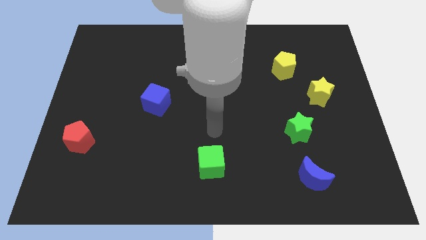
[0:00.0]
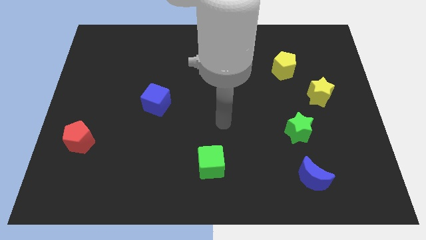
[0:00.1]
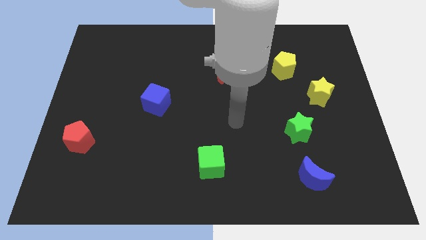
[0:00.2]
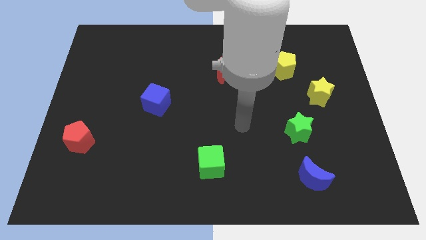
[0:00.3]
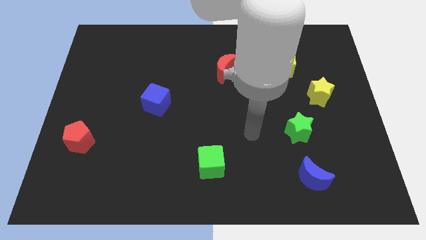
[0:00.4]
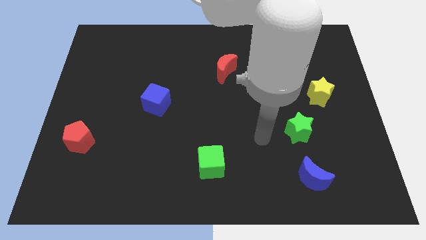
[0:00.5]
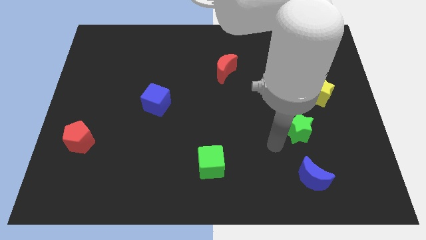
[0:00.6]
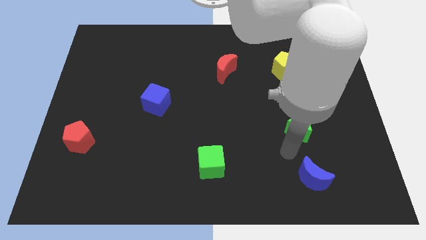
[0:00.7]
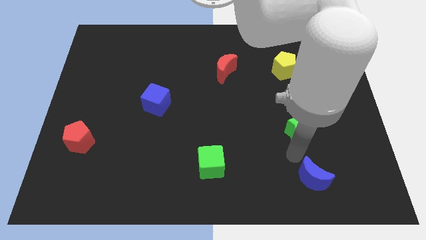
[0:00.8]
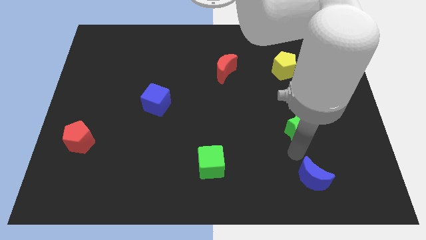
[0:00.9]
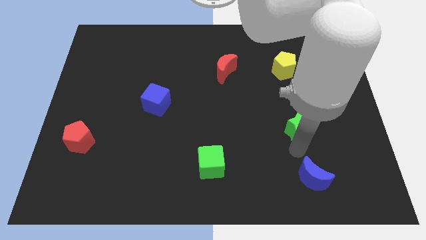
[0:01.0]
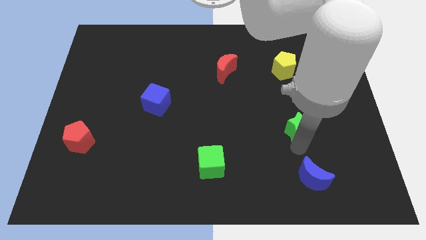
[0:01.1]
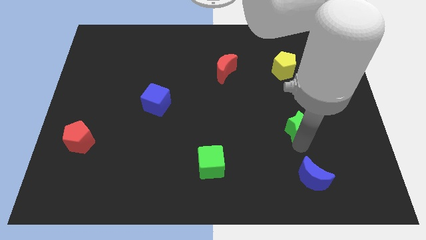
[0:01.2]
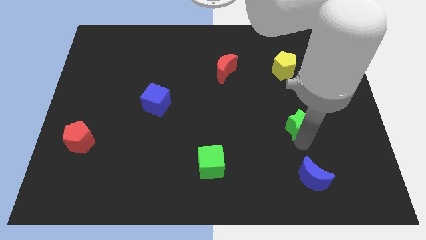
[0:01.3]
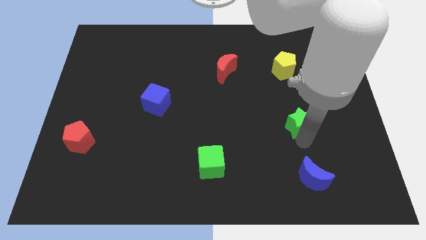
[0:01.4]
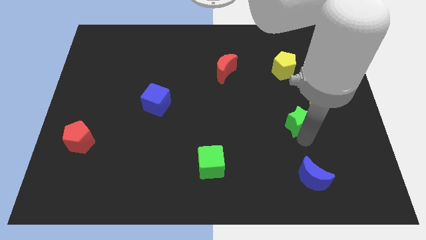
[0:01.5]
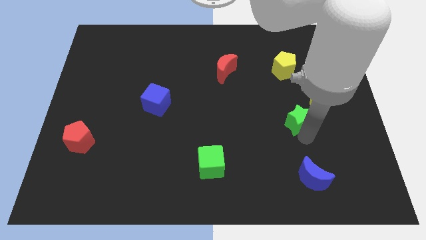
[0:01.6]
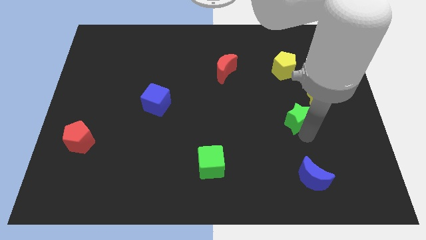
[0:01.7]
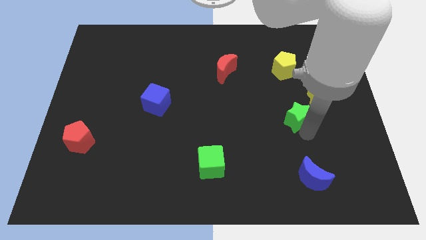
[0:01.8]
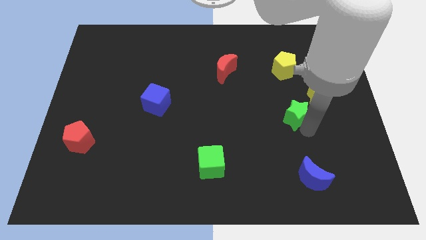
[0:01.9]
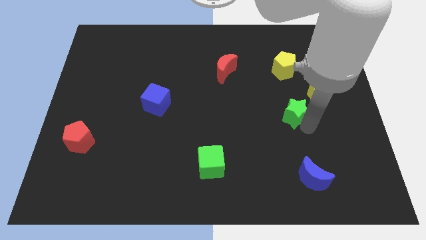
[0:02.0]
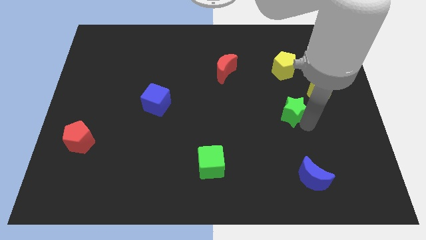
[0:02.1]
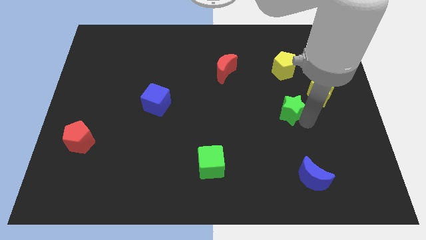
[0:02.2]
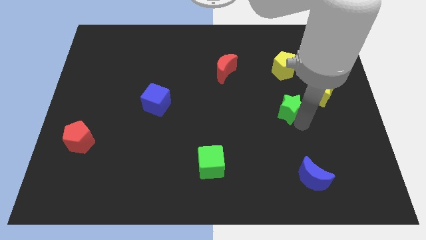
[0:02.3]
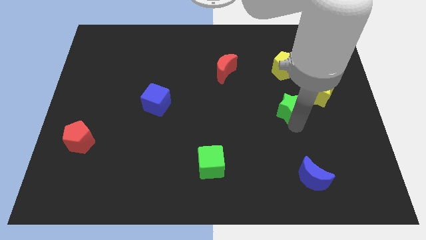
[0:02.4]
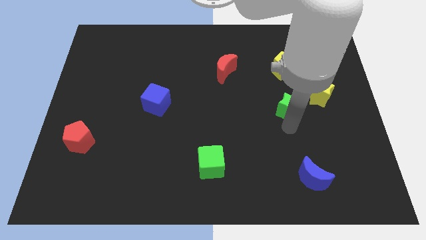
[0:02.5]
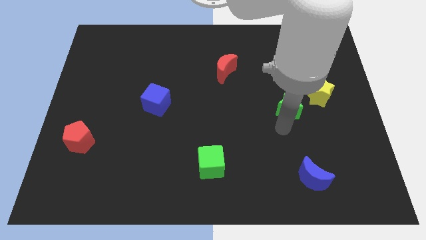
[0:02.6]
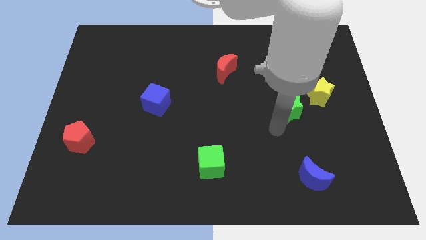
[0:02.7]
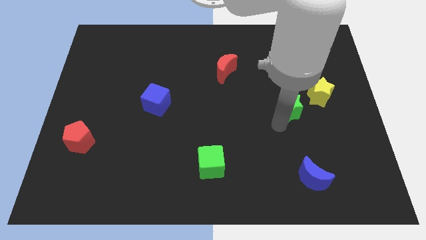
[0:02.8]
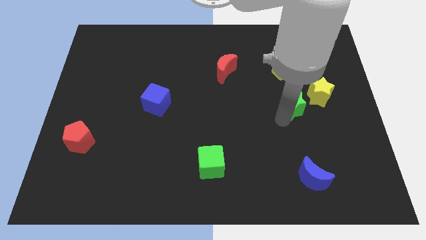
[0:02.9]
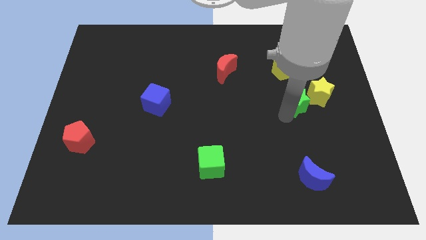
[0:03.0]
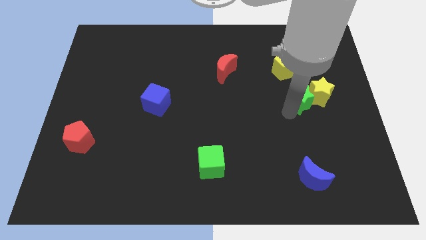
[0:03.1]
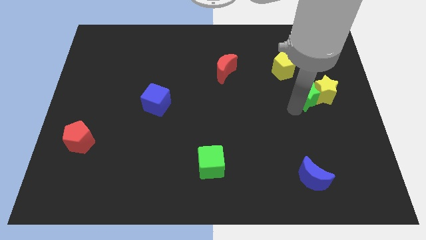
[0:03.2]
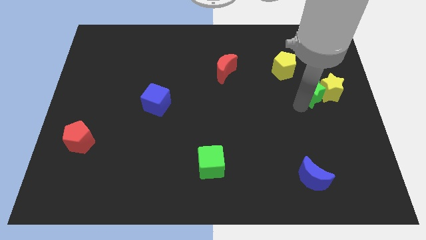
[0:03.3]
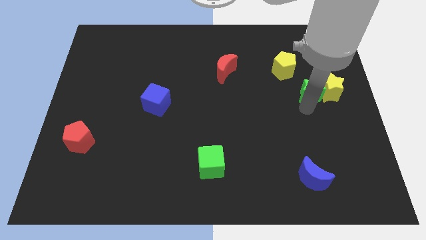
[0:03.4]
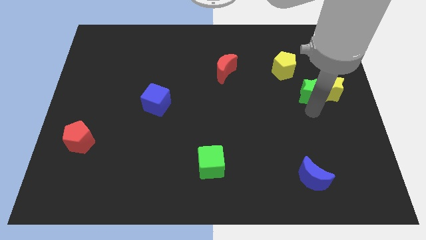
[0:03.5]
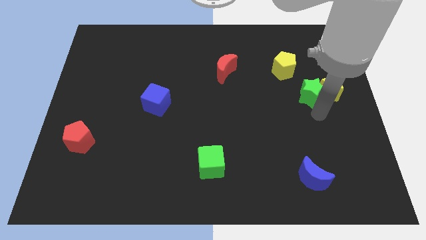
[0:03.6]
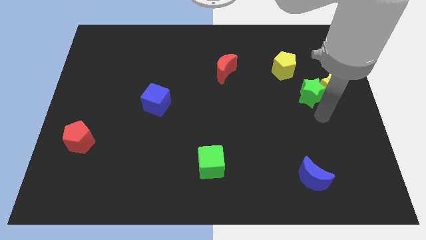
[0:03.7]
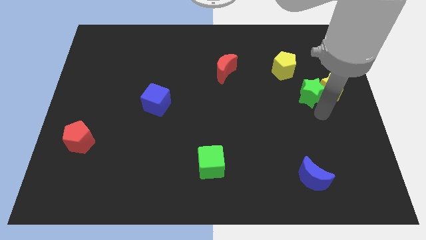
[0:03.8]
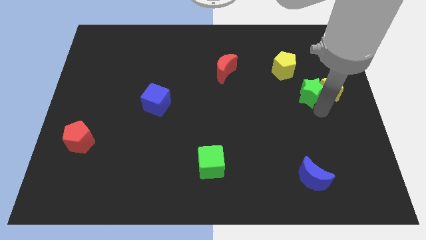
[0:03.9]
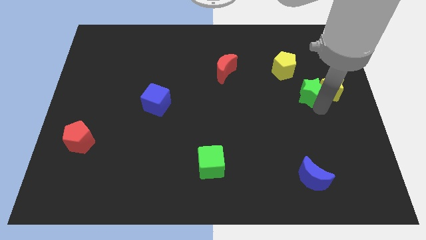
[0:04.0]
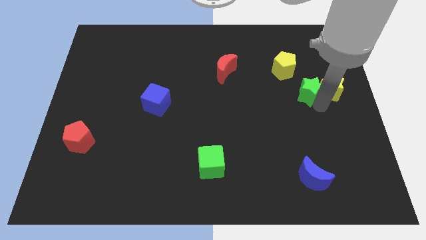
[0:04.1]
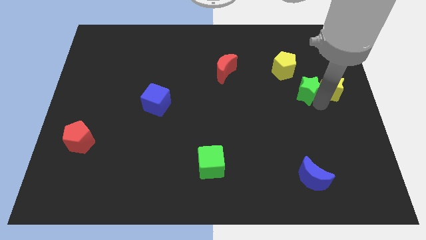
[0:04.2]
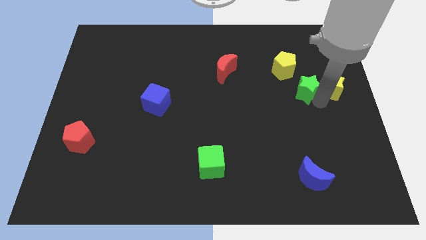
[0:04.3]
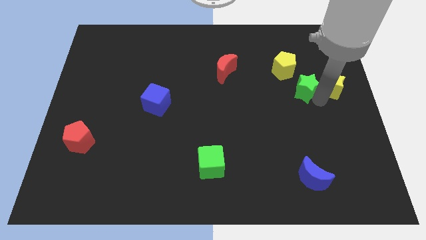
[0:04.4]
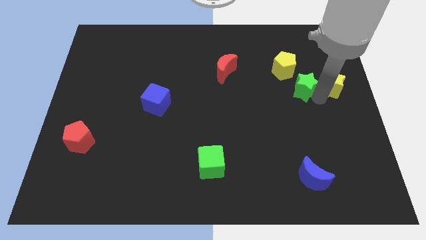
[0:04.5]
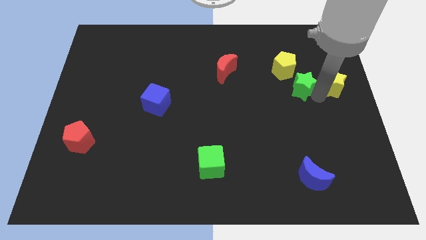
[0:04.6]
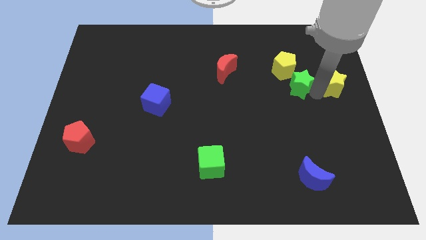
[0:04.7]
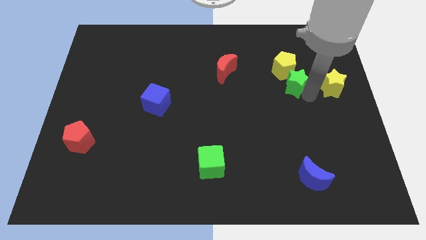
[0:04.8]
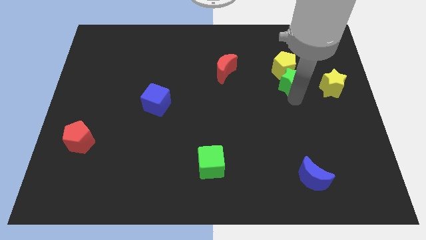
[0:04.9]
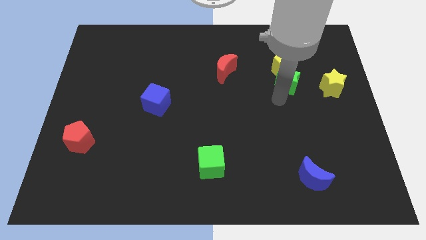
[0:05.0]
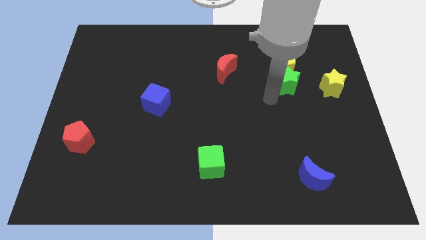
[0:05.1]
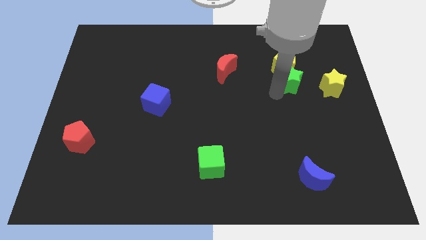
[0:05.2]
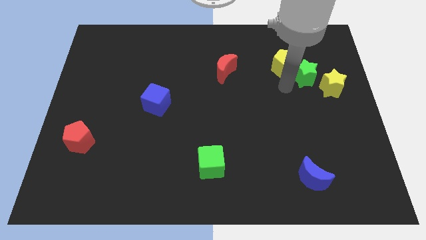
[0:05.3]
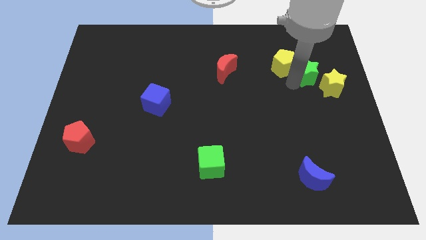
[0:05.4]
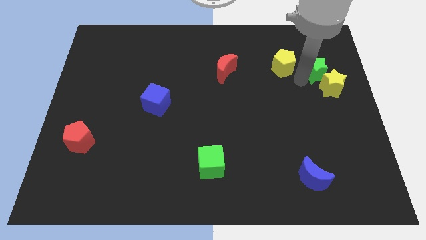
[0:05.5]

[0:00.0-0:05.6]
slide the green star above the yellow star
